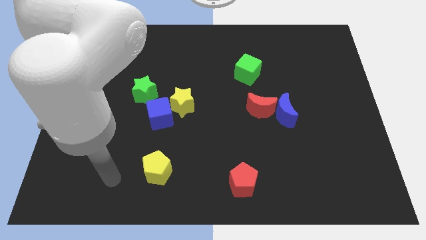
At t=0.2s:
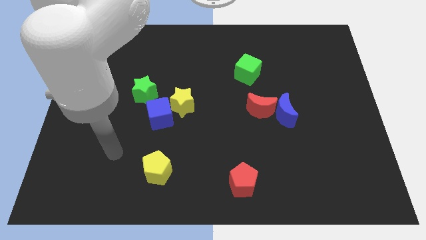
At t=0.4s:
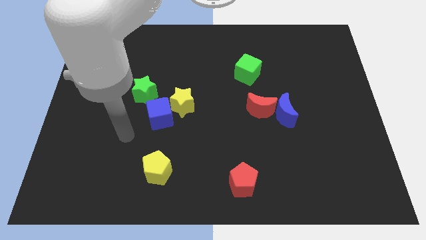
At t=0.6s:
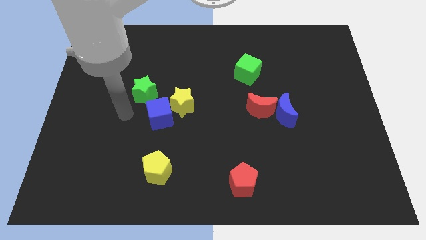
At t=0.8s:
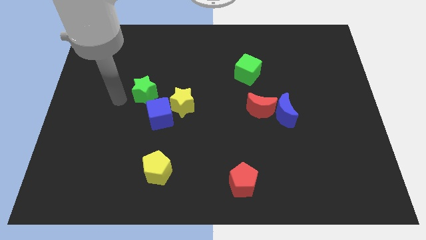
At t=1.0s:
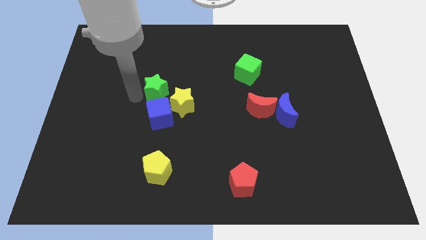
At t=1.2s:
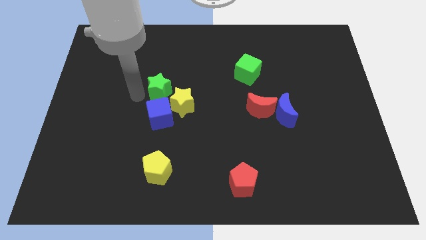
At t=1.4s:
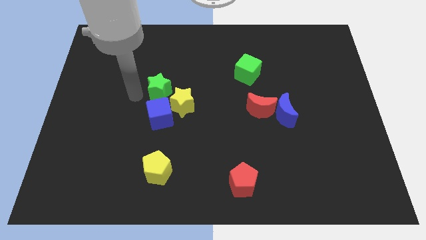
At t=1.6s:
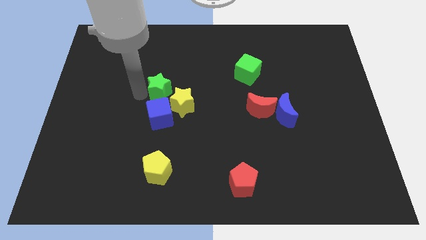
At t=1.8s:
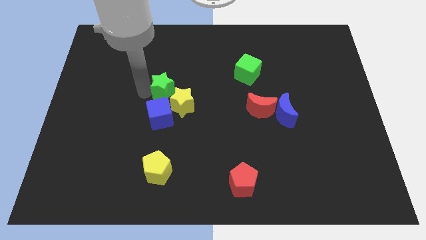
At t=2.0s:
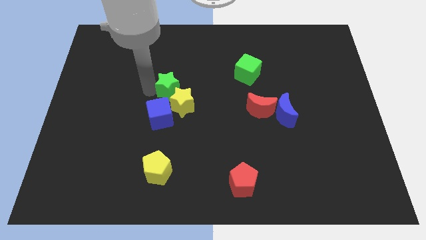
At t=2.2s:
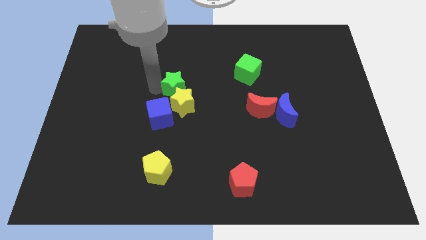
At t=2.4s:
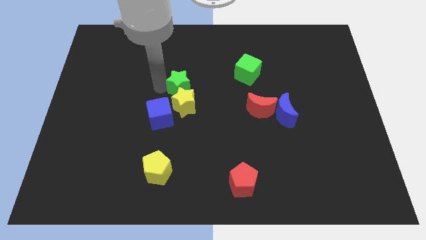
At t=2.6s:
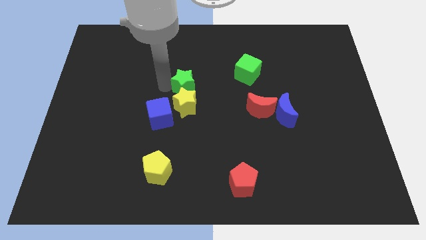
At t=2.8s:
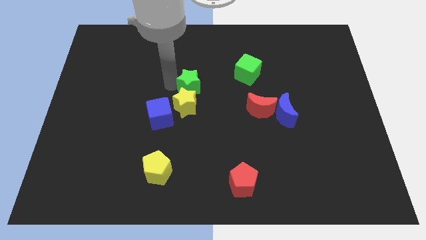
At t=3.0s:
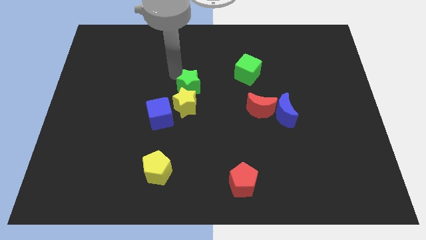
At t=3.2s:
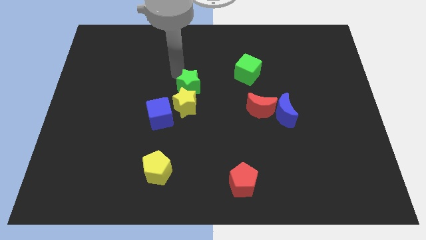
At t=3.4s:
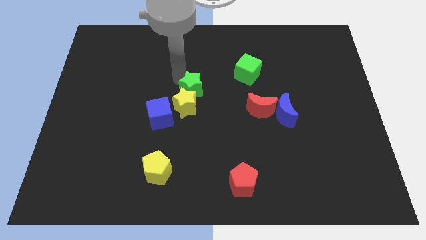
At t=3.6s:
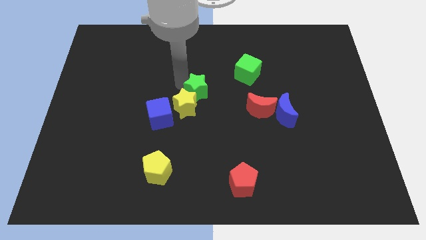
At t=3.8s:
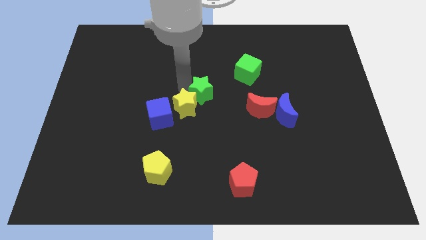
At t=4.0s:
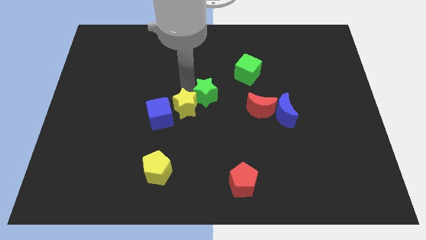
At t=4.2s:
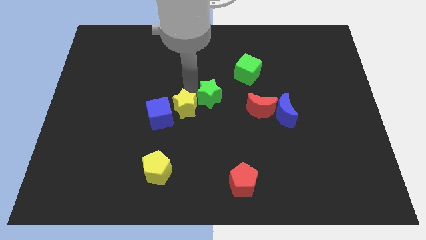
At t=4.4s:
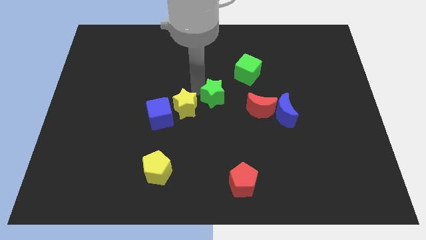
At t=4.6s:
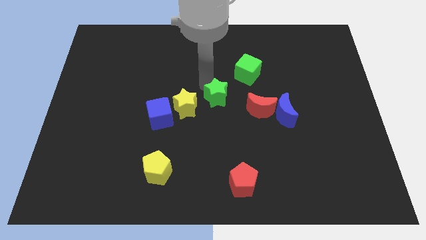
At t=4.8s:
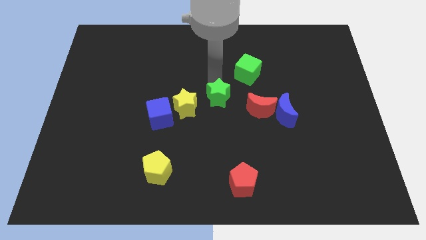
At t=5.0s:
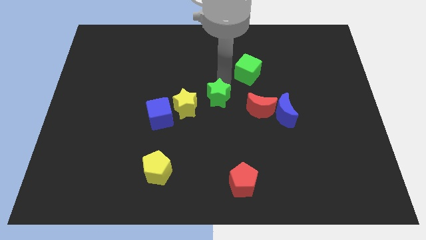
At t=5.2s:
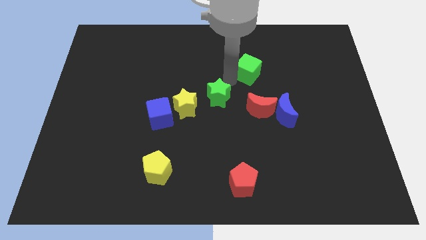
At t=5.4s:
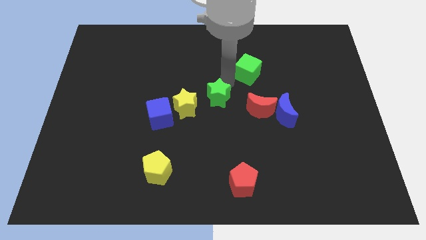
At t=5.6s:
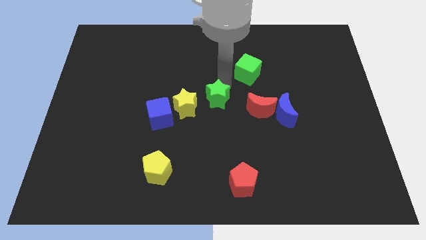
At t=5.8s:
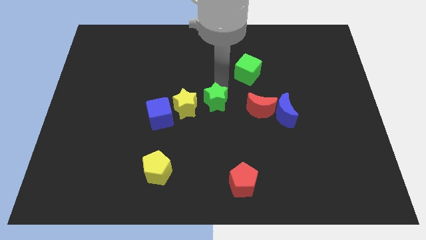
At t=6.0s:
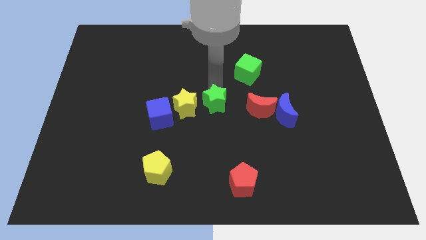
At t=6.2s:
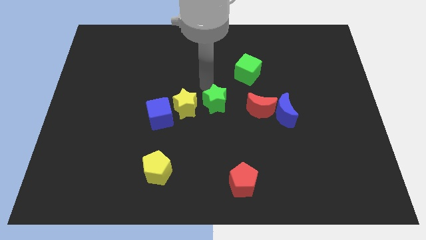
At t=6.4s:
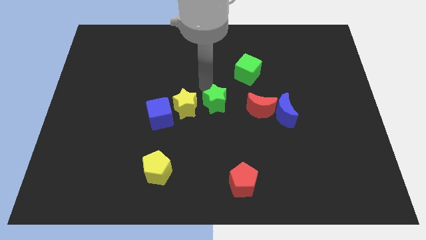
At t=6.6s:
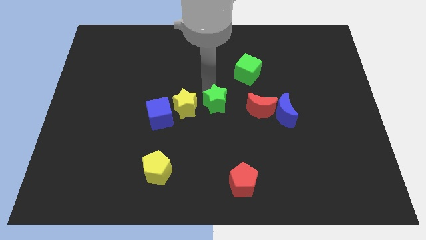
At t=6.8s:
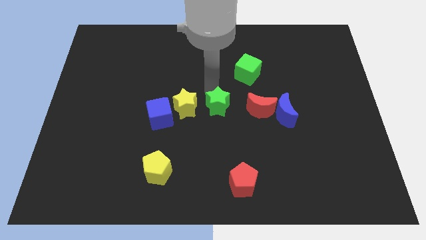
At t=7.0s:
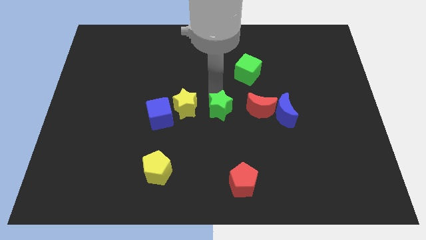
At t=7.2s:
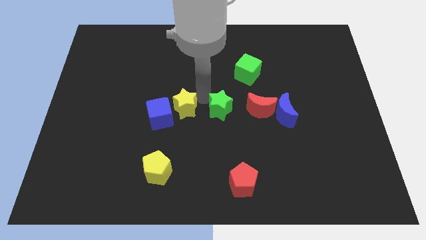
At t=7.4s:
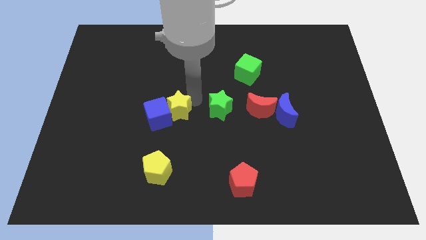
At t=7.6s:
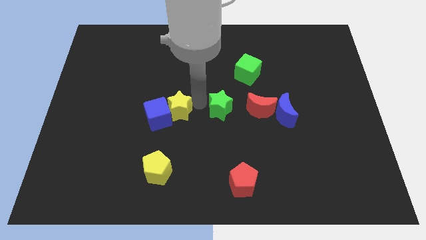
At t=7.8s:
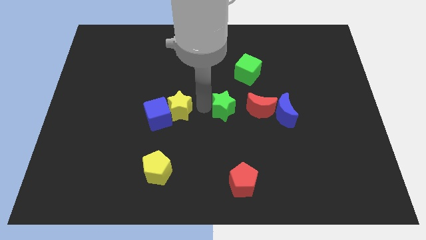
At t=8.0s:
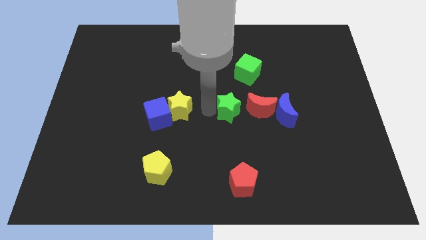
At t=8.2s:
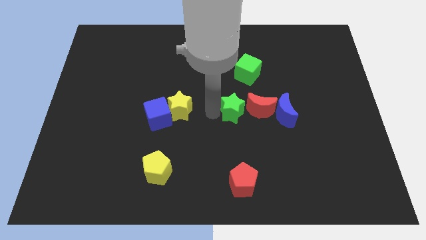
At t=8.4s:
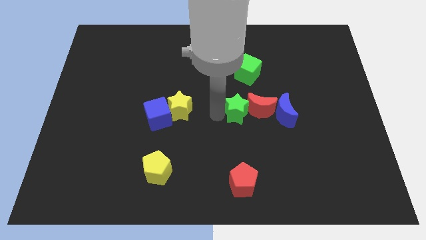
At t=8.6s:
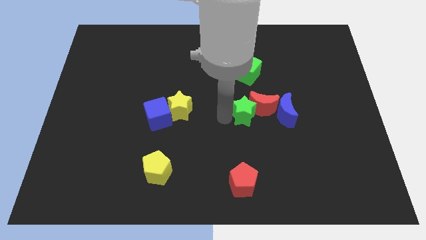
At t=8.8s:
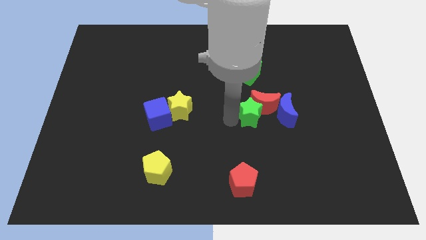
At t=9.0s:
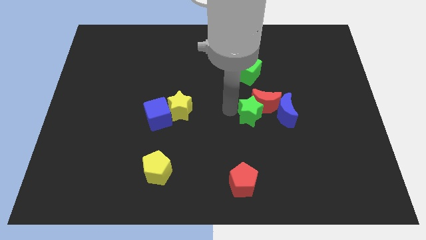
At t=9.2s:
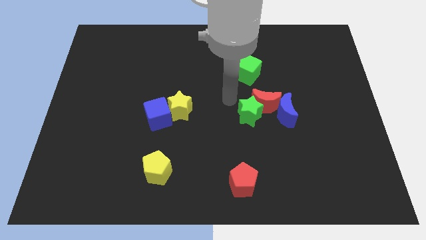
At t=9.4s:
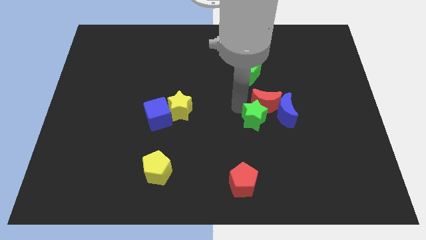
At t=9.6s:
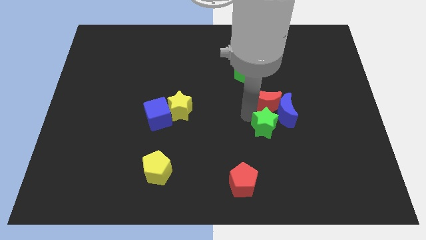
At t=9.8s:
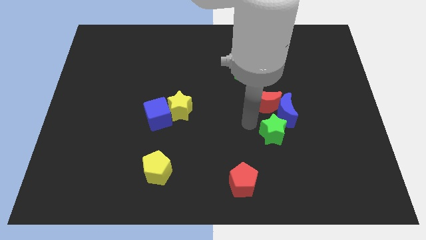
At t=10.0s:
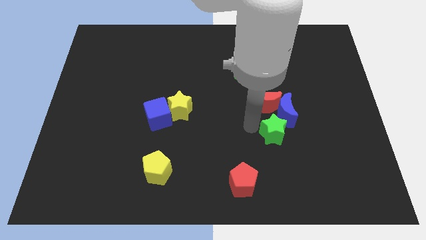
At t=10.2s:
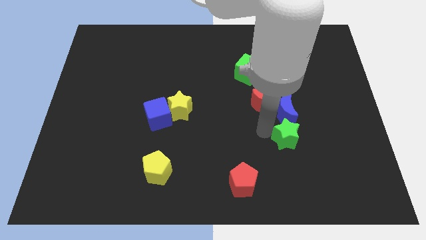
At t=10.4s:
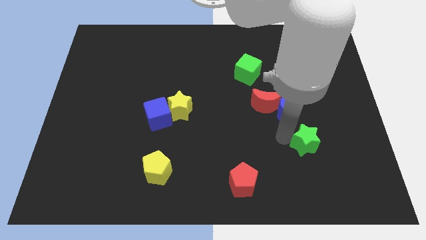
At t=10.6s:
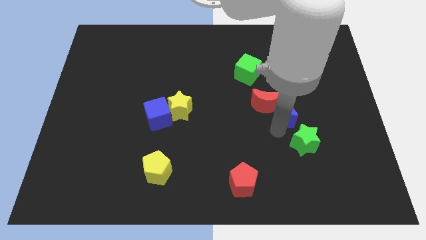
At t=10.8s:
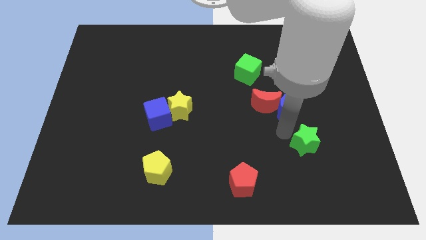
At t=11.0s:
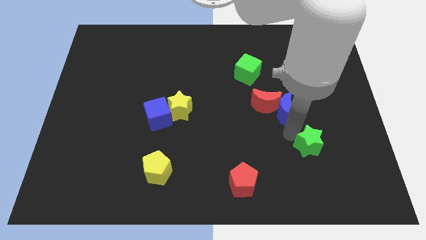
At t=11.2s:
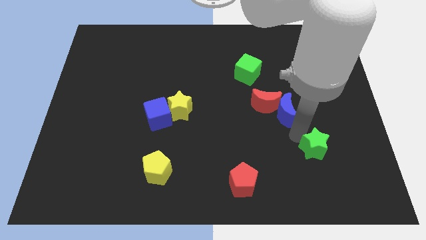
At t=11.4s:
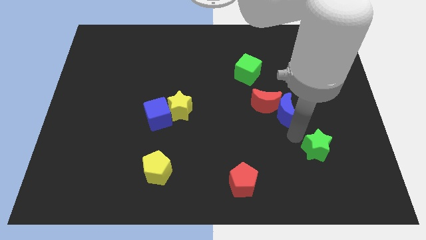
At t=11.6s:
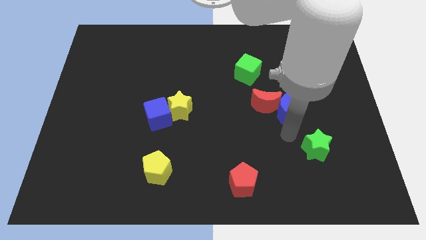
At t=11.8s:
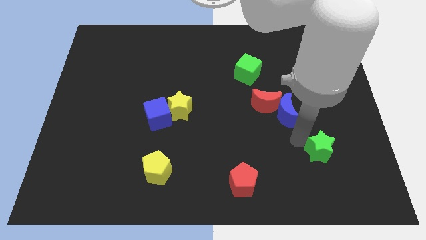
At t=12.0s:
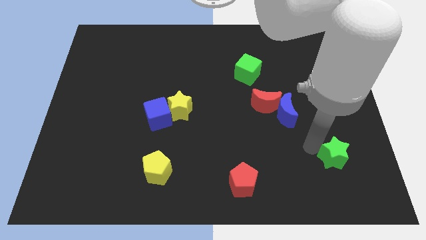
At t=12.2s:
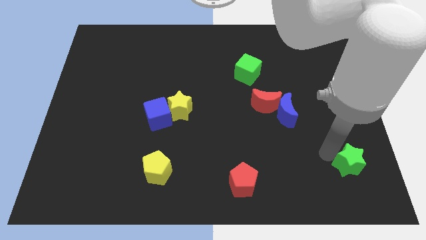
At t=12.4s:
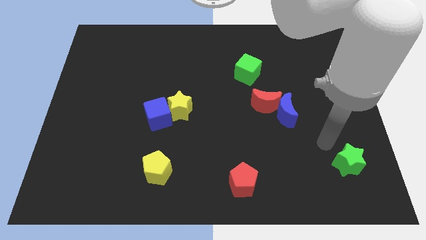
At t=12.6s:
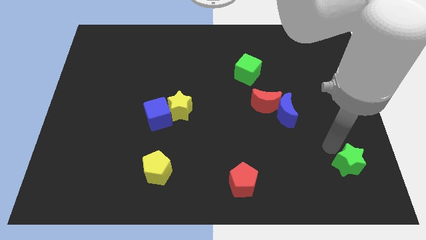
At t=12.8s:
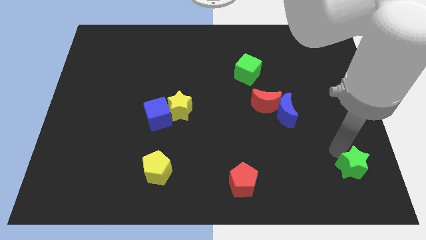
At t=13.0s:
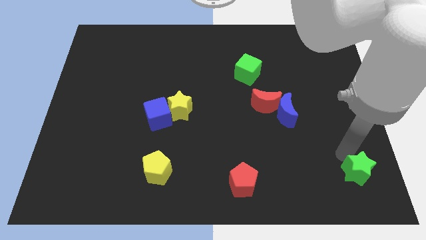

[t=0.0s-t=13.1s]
slide the green star to the bottom right corner

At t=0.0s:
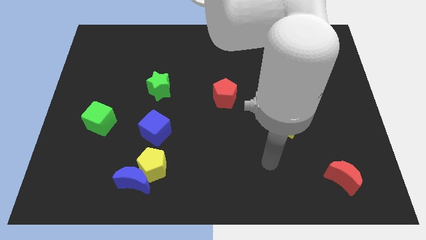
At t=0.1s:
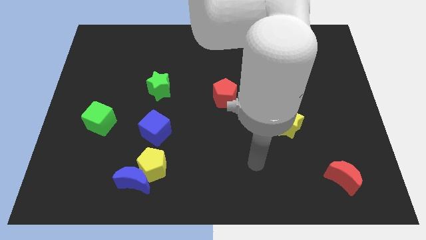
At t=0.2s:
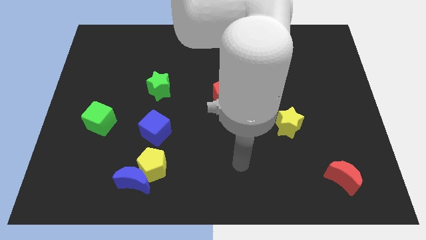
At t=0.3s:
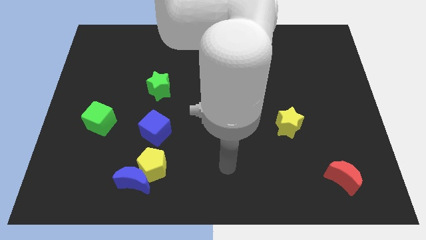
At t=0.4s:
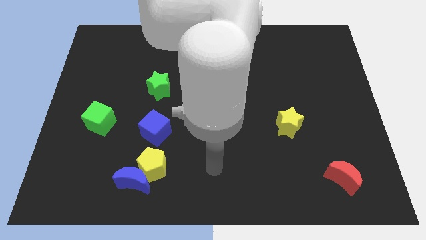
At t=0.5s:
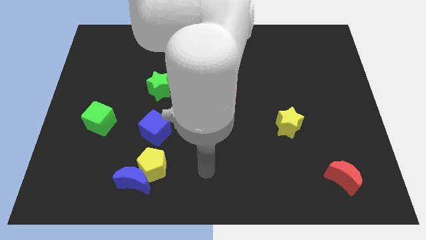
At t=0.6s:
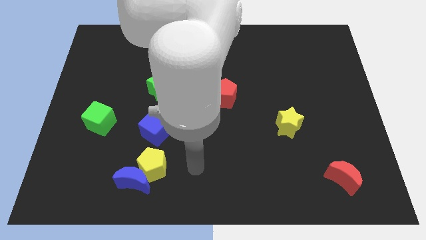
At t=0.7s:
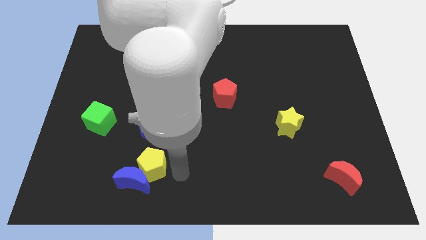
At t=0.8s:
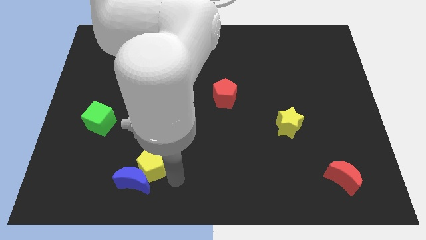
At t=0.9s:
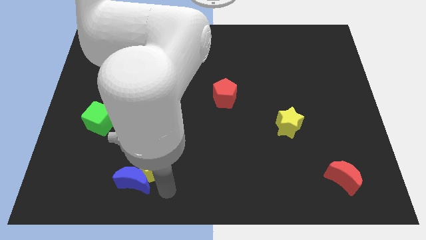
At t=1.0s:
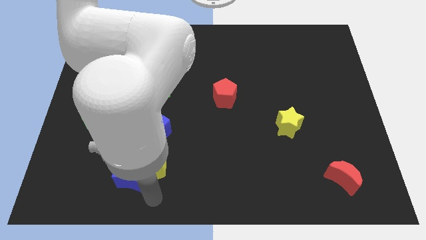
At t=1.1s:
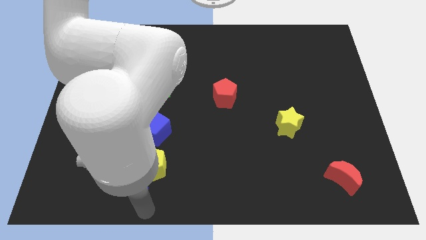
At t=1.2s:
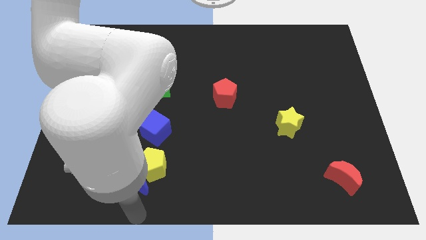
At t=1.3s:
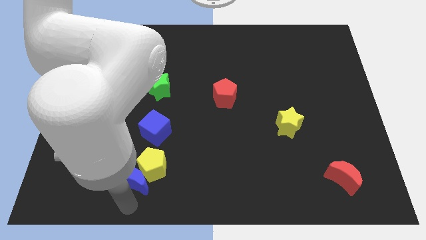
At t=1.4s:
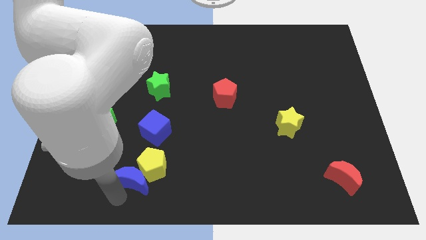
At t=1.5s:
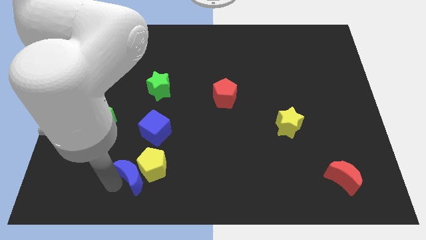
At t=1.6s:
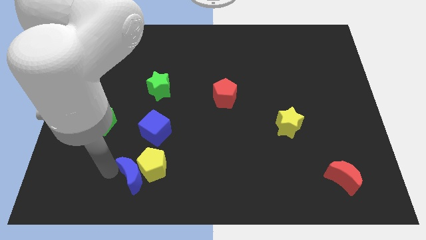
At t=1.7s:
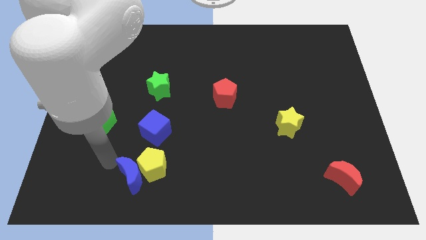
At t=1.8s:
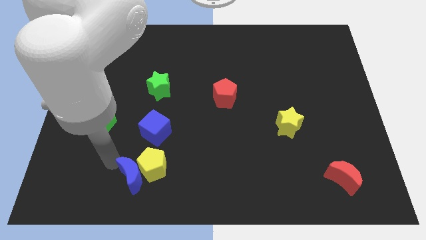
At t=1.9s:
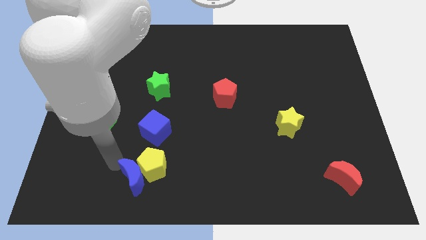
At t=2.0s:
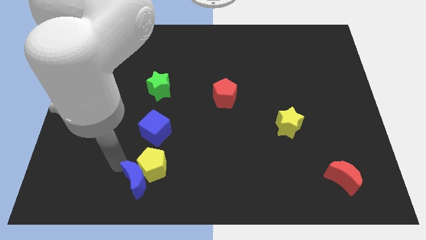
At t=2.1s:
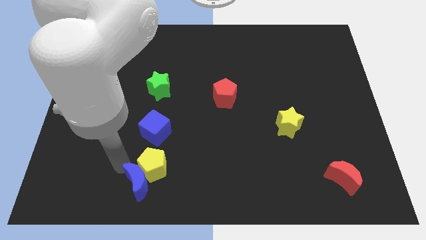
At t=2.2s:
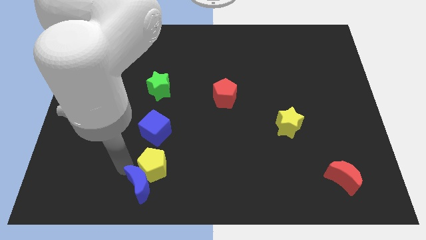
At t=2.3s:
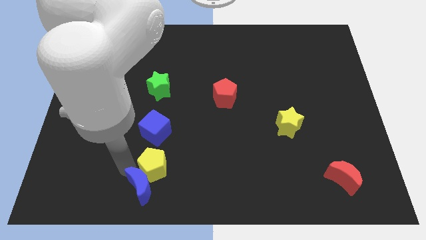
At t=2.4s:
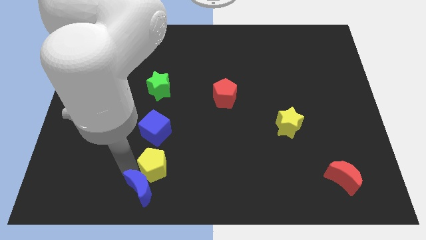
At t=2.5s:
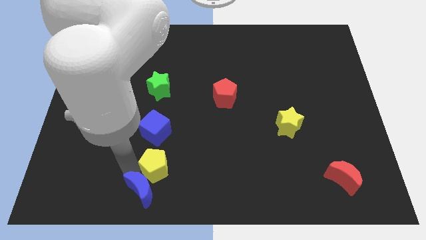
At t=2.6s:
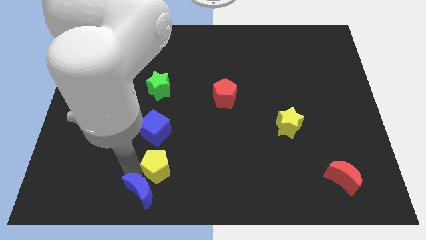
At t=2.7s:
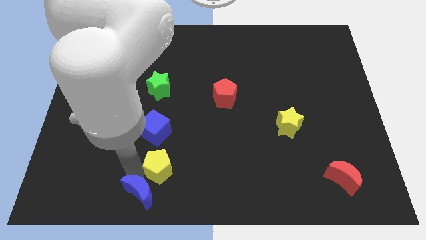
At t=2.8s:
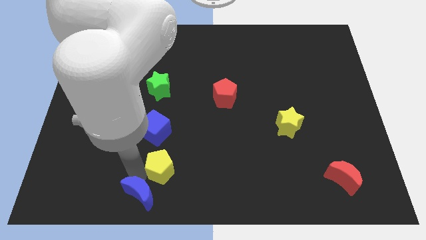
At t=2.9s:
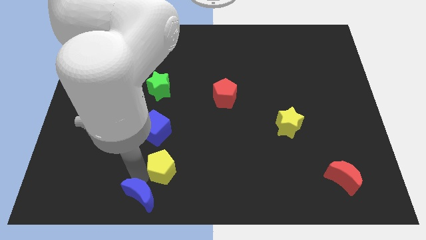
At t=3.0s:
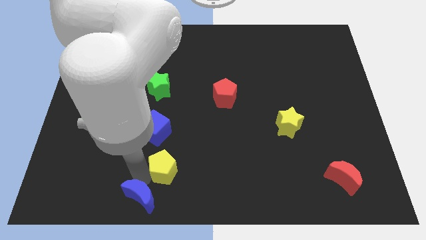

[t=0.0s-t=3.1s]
push the blue moon to the bottom side
